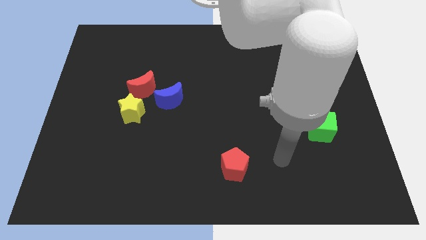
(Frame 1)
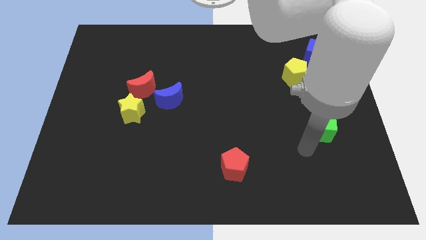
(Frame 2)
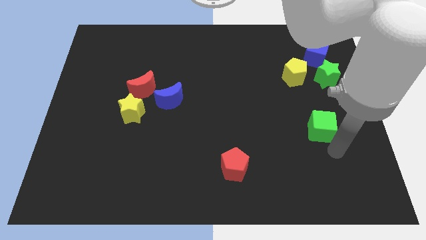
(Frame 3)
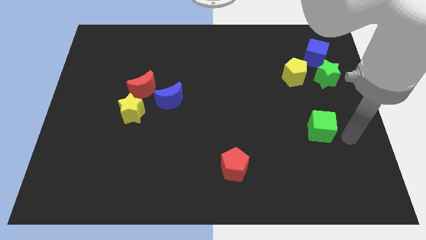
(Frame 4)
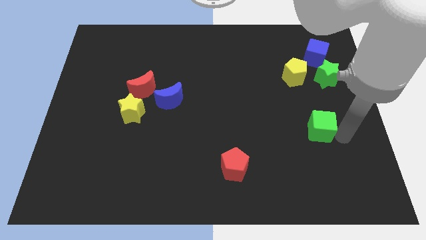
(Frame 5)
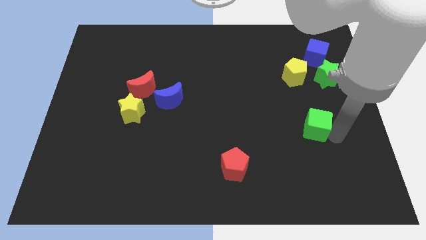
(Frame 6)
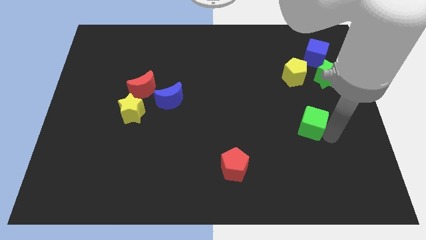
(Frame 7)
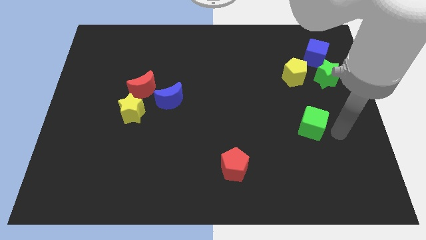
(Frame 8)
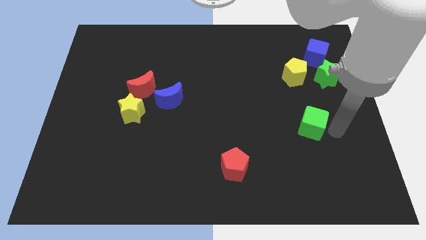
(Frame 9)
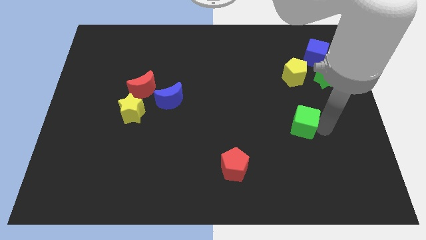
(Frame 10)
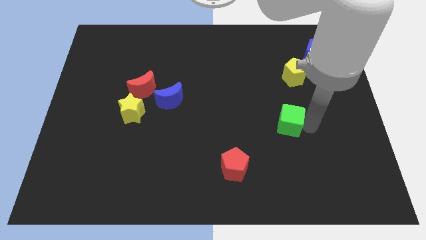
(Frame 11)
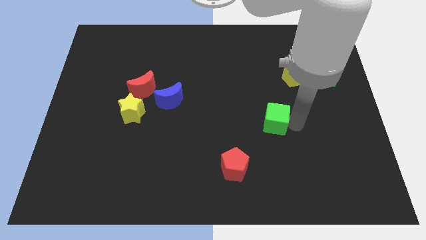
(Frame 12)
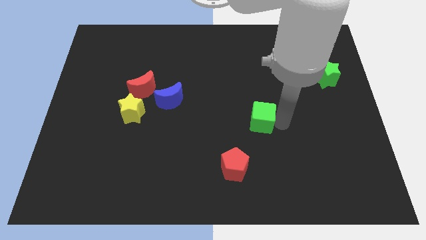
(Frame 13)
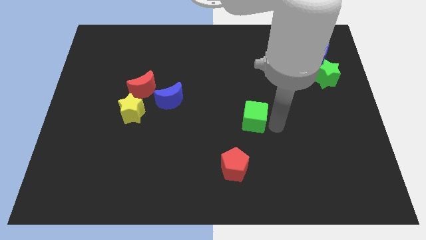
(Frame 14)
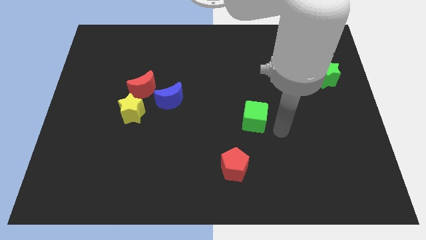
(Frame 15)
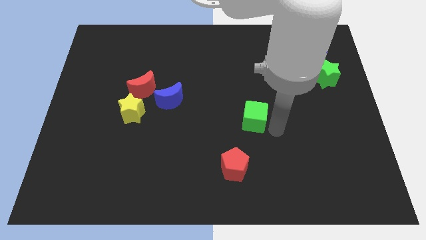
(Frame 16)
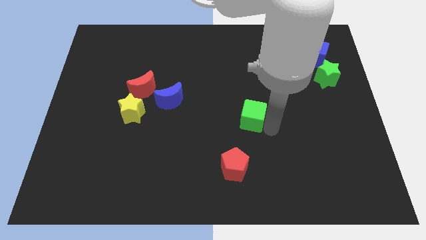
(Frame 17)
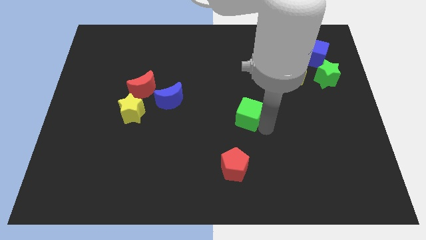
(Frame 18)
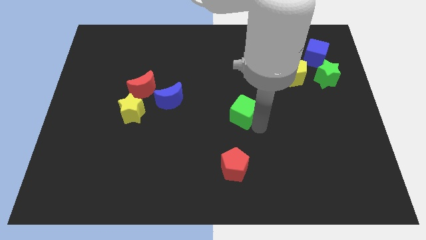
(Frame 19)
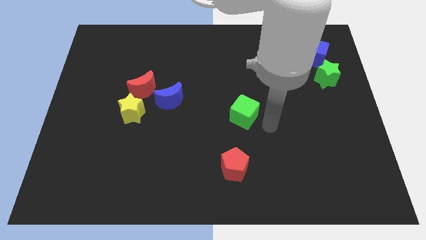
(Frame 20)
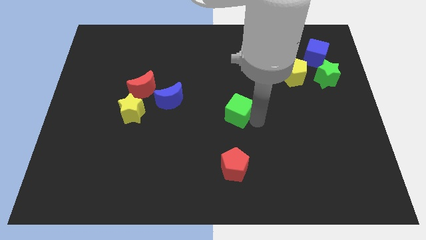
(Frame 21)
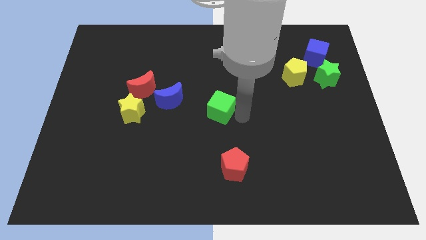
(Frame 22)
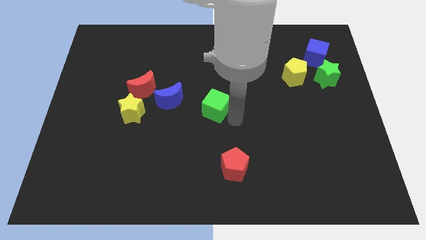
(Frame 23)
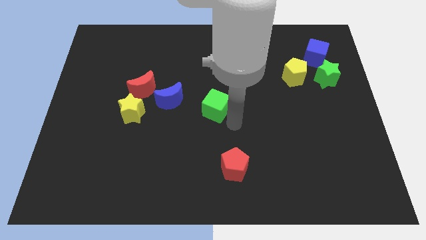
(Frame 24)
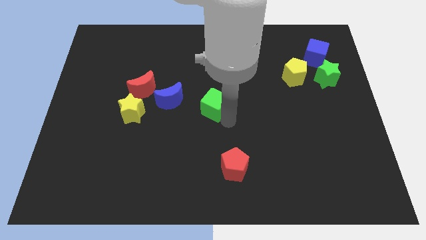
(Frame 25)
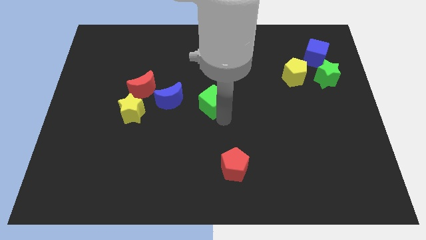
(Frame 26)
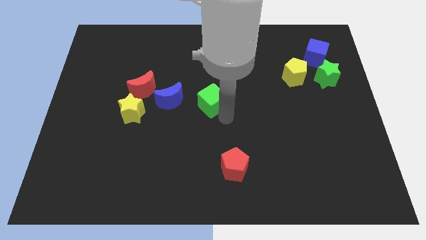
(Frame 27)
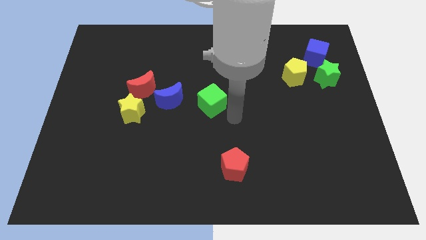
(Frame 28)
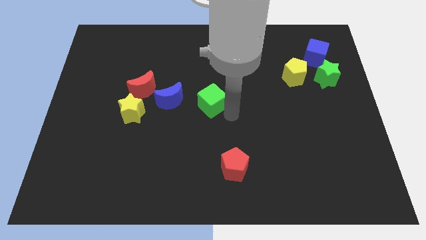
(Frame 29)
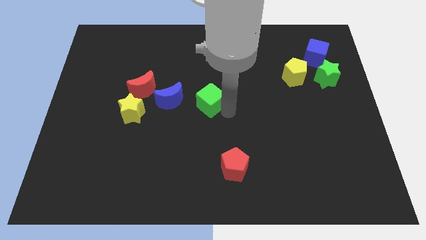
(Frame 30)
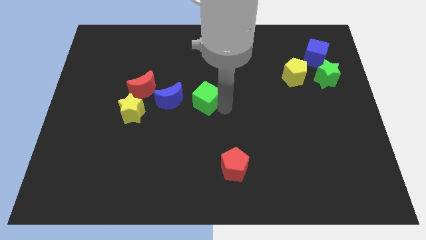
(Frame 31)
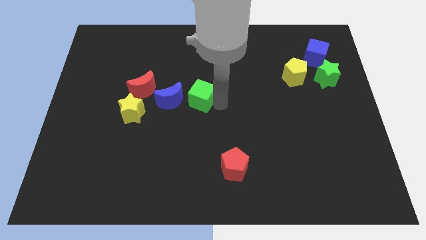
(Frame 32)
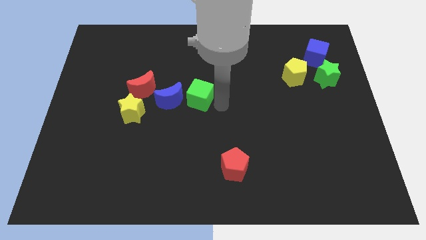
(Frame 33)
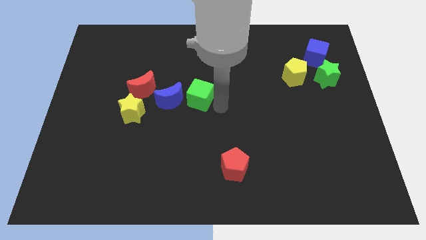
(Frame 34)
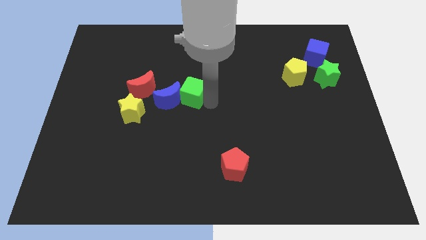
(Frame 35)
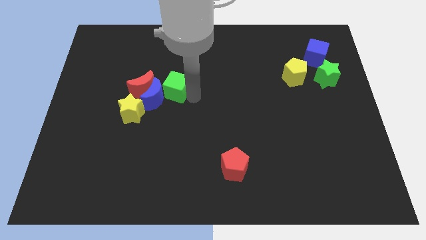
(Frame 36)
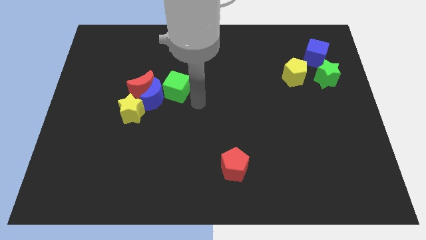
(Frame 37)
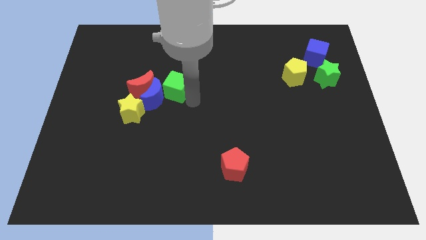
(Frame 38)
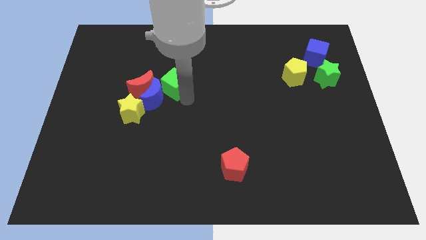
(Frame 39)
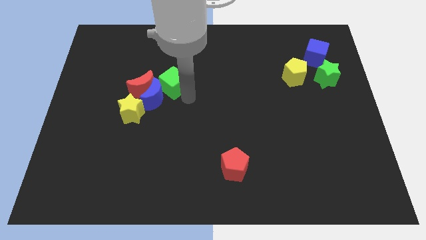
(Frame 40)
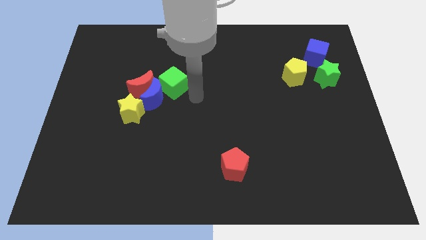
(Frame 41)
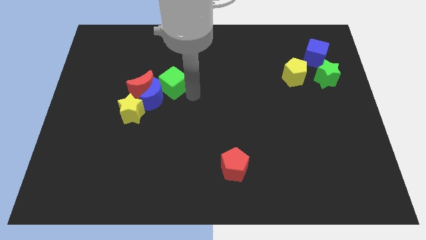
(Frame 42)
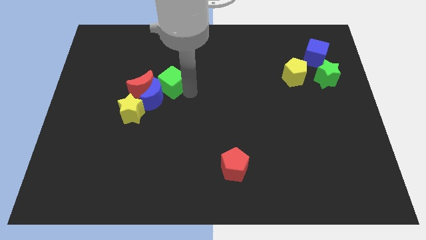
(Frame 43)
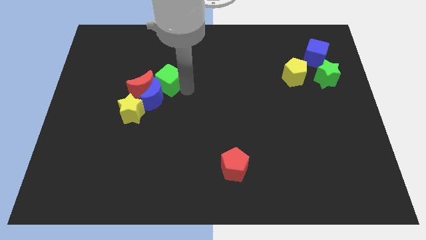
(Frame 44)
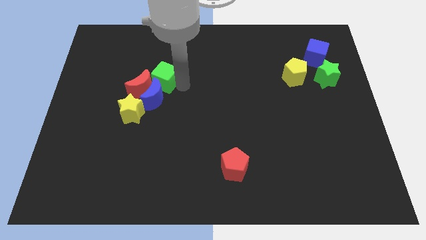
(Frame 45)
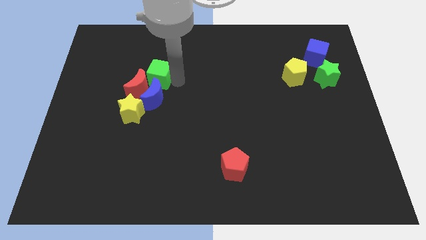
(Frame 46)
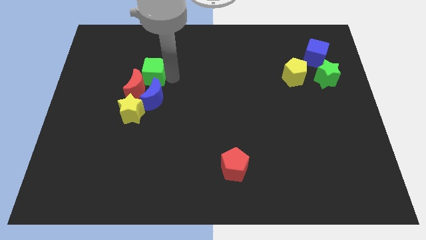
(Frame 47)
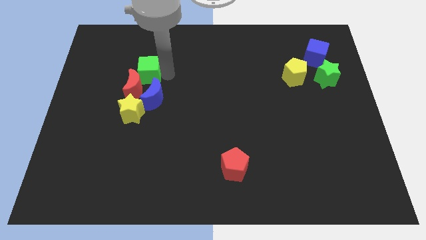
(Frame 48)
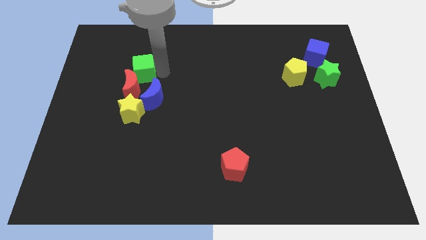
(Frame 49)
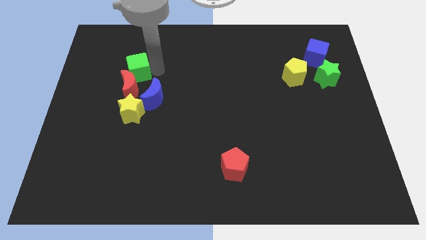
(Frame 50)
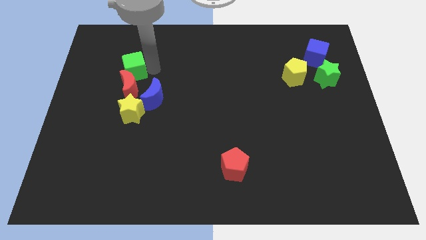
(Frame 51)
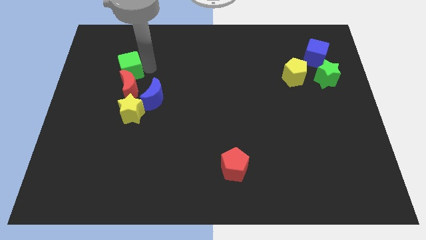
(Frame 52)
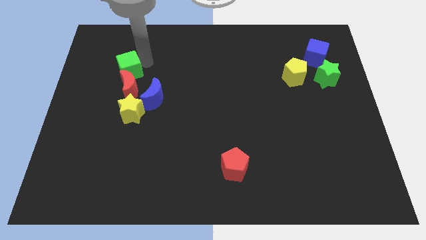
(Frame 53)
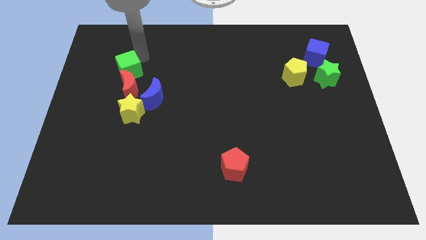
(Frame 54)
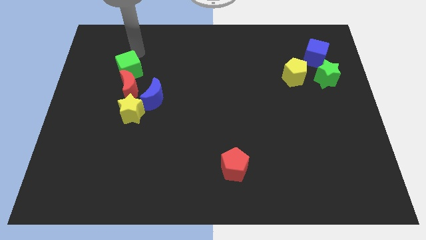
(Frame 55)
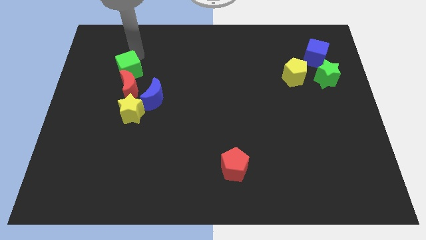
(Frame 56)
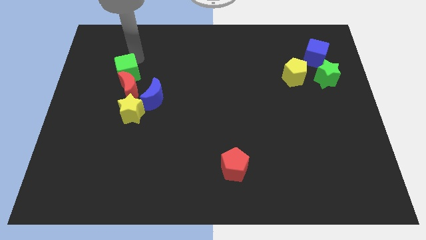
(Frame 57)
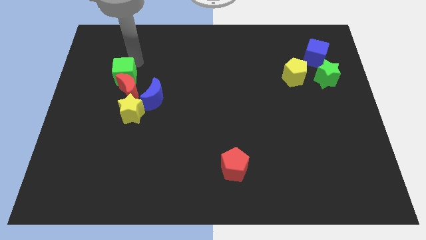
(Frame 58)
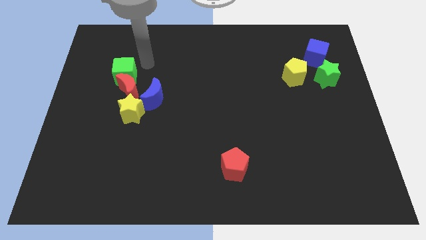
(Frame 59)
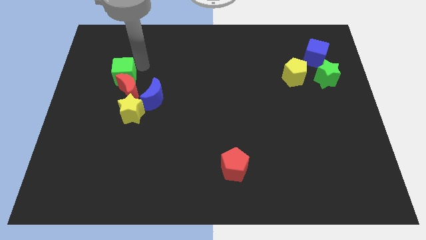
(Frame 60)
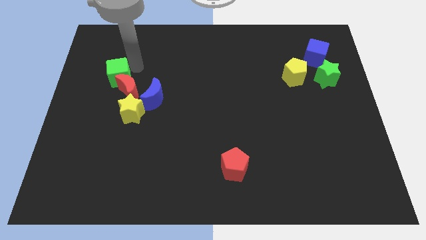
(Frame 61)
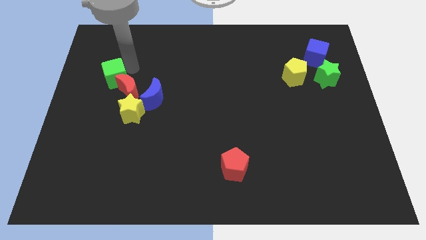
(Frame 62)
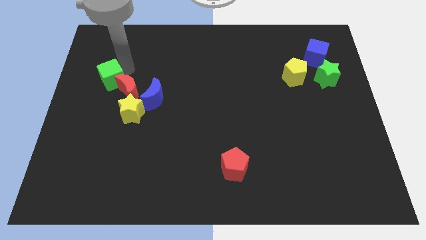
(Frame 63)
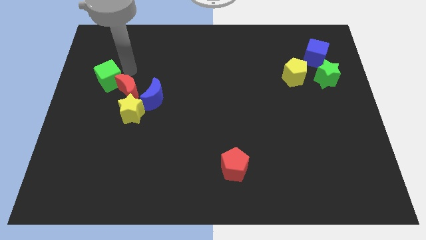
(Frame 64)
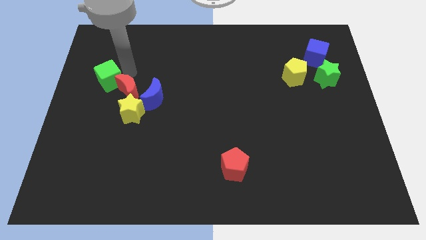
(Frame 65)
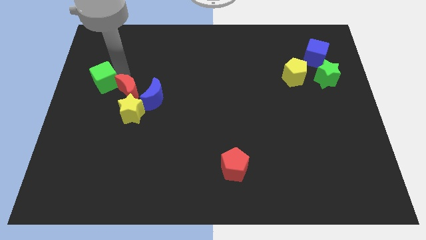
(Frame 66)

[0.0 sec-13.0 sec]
slide the green cube to the left side of the board

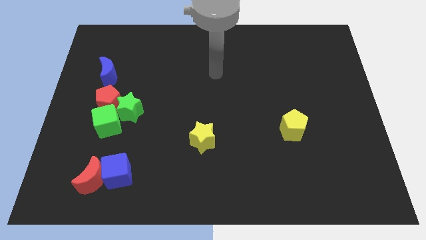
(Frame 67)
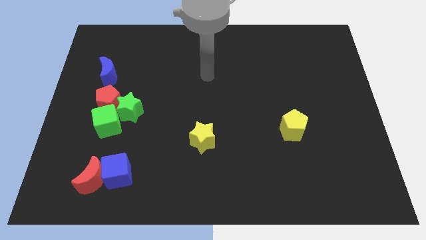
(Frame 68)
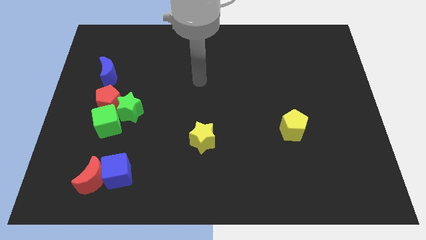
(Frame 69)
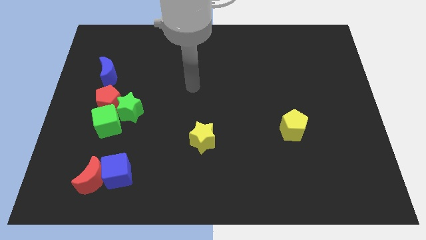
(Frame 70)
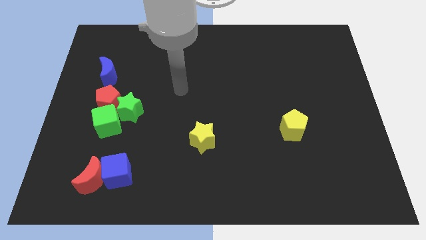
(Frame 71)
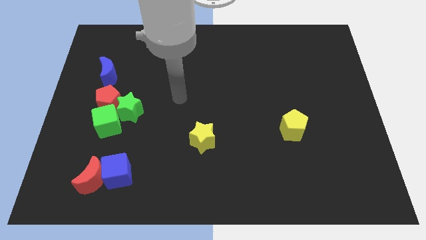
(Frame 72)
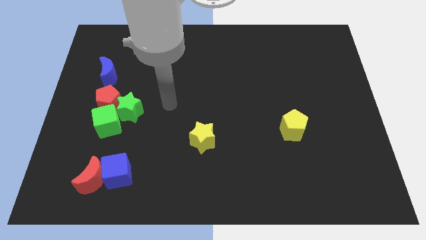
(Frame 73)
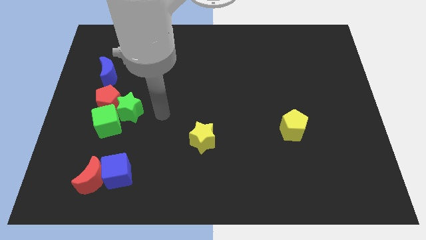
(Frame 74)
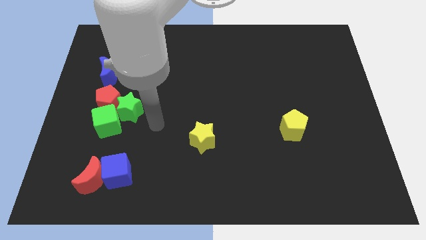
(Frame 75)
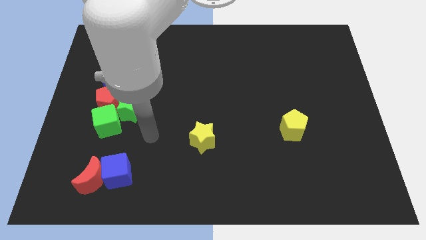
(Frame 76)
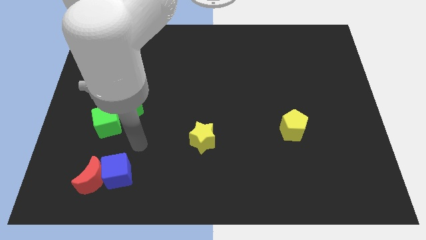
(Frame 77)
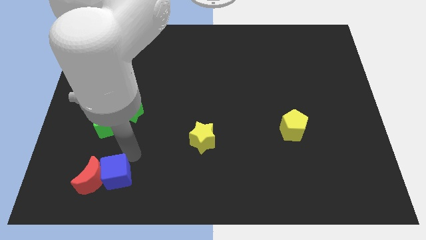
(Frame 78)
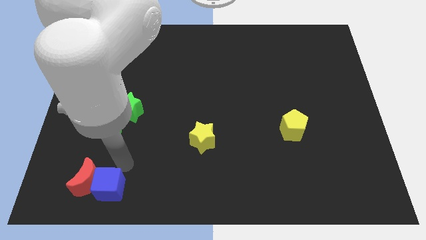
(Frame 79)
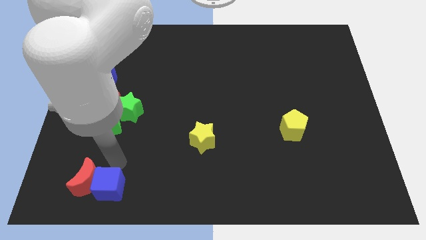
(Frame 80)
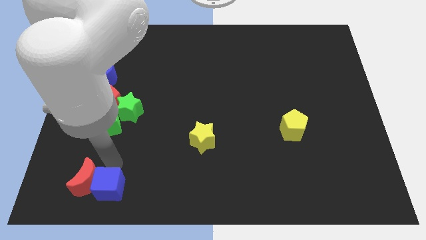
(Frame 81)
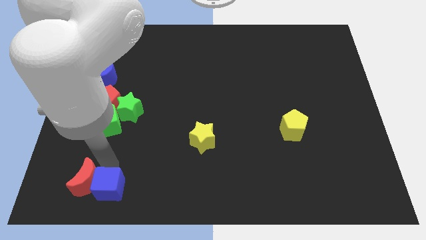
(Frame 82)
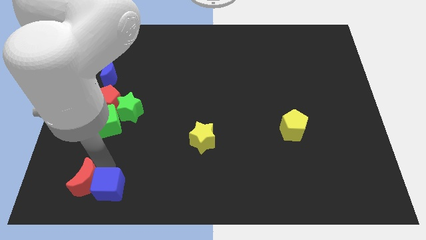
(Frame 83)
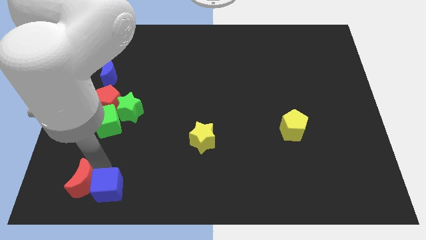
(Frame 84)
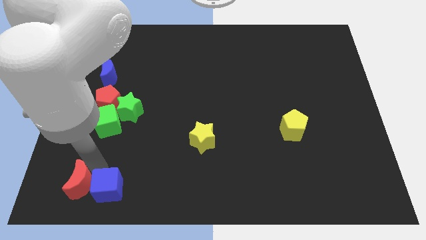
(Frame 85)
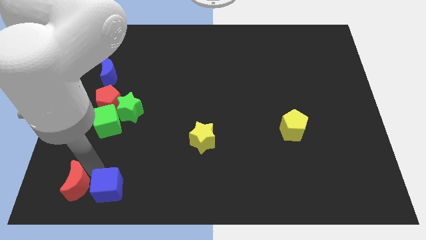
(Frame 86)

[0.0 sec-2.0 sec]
move the red moon to the bottom left of the board
